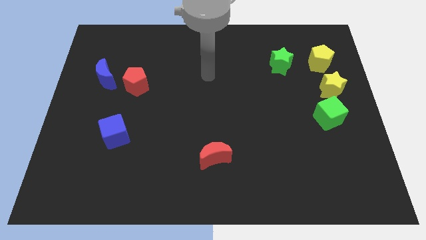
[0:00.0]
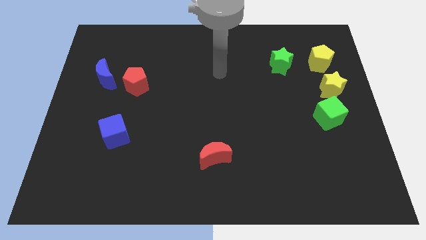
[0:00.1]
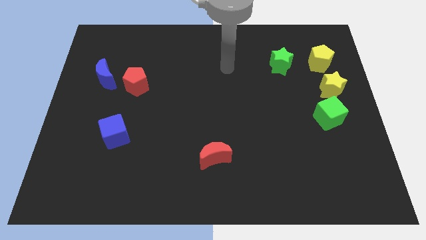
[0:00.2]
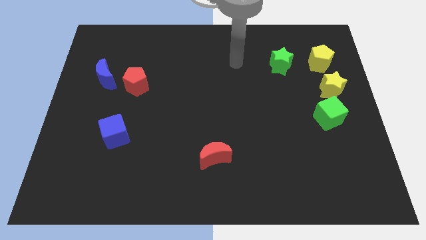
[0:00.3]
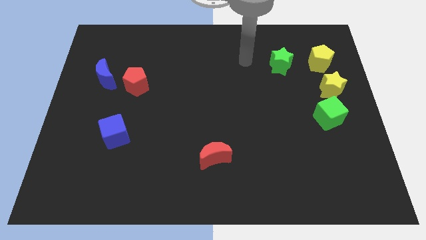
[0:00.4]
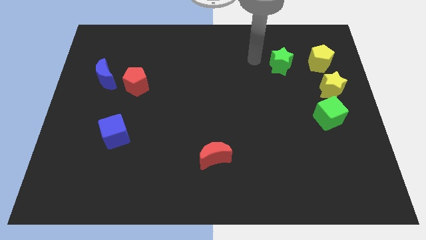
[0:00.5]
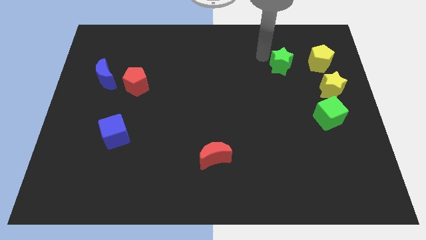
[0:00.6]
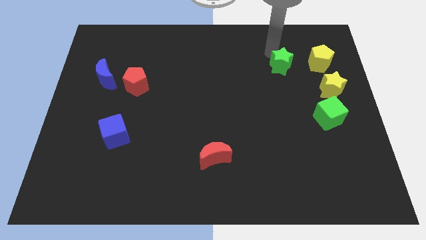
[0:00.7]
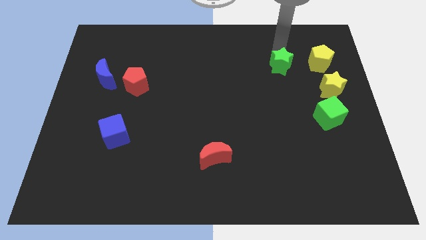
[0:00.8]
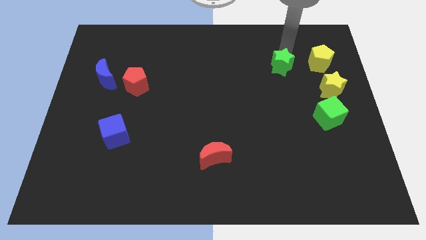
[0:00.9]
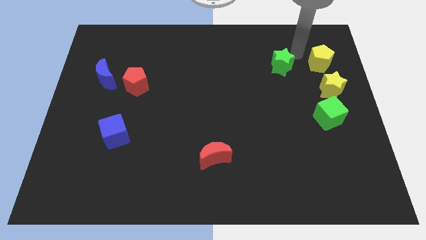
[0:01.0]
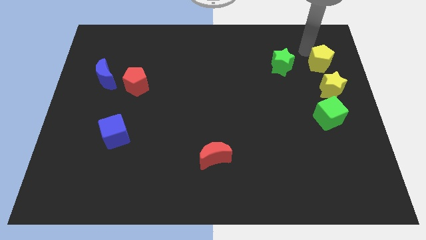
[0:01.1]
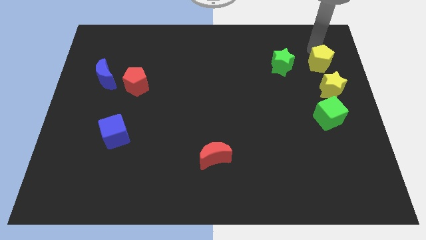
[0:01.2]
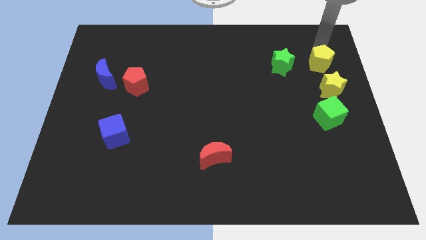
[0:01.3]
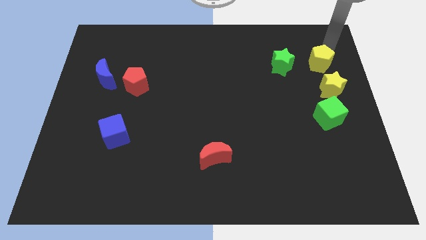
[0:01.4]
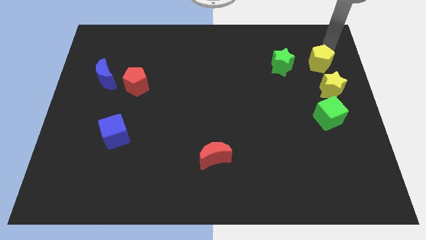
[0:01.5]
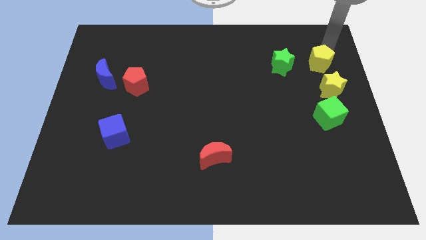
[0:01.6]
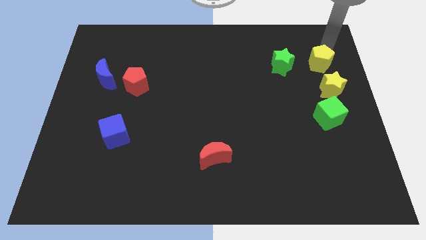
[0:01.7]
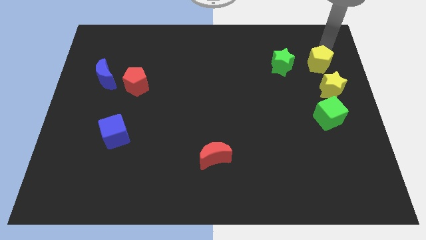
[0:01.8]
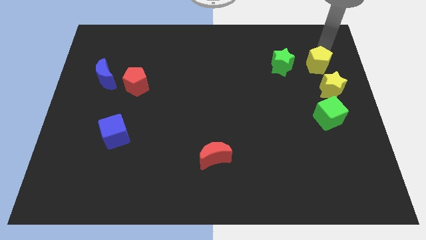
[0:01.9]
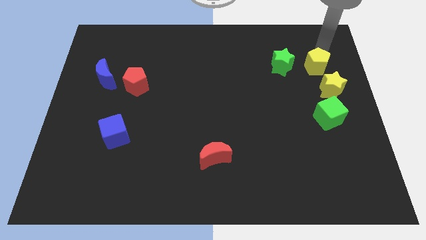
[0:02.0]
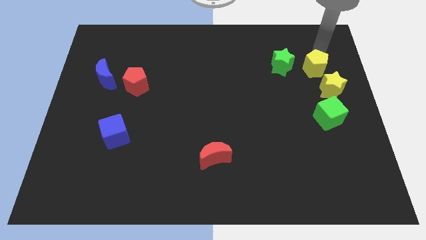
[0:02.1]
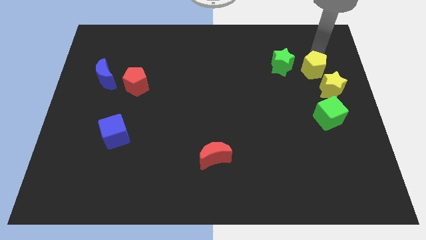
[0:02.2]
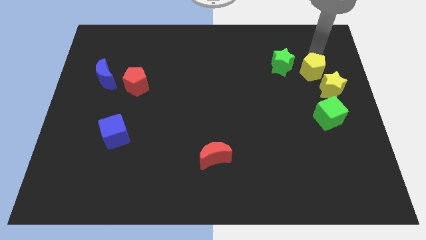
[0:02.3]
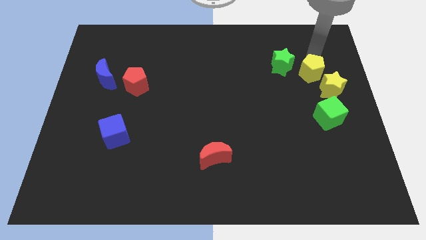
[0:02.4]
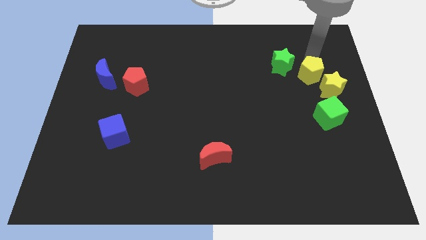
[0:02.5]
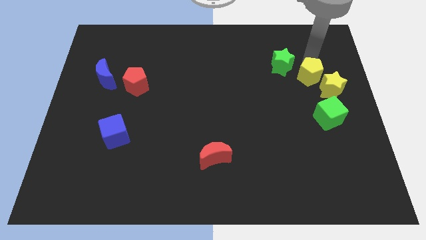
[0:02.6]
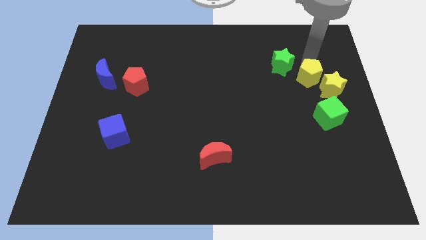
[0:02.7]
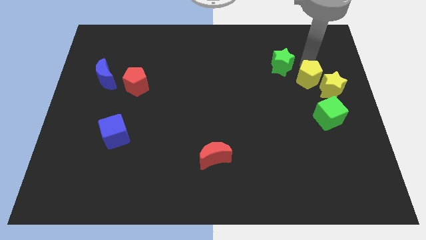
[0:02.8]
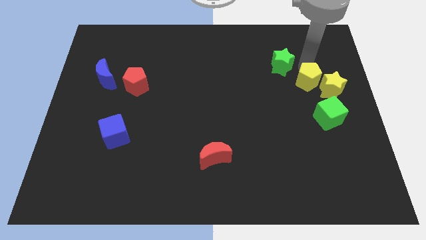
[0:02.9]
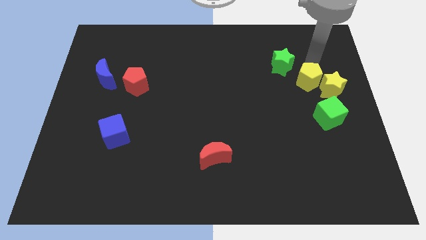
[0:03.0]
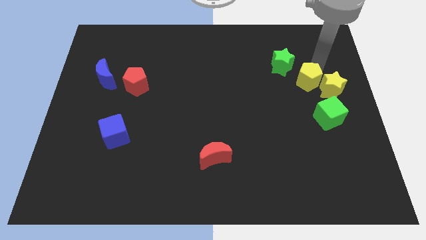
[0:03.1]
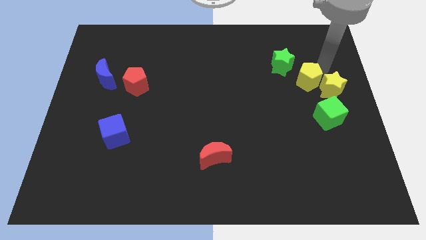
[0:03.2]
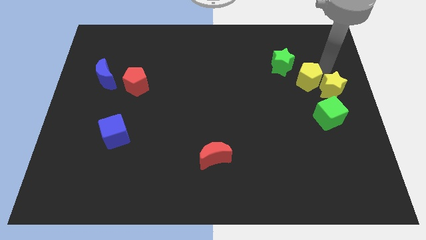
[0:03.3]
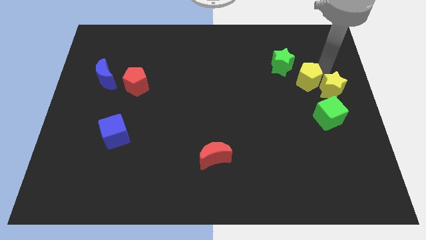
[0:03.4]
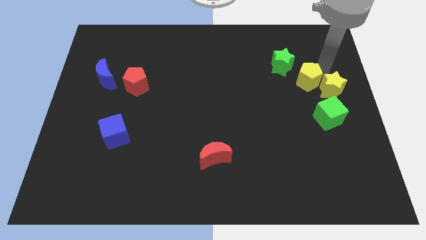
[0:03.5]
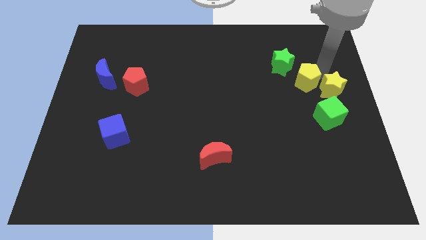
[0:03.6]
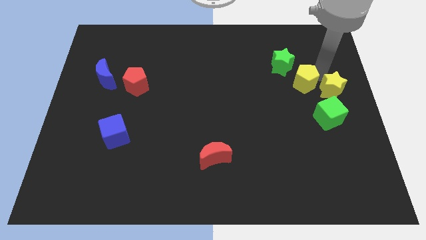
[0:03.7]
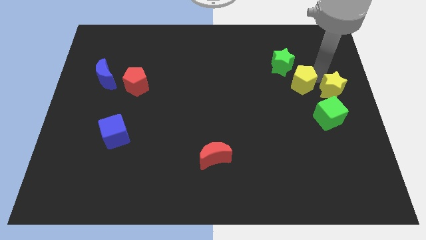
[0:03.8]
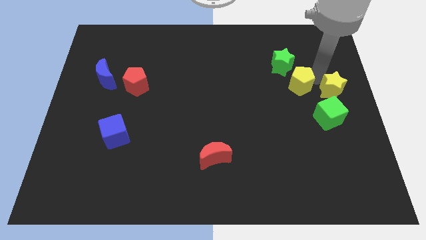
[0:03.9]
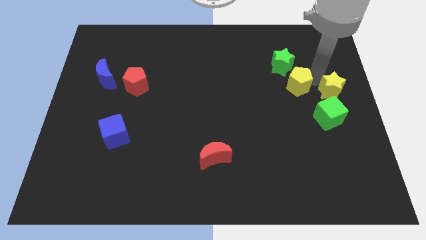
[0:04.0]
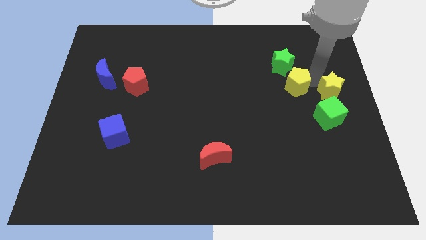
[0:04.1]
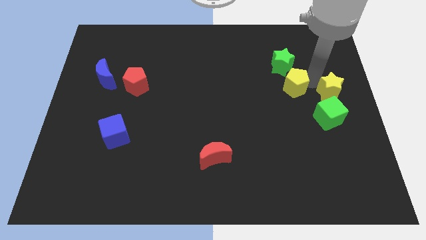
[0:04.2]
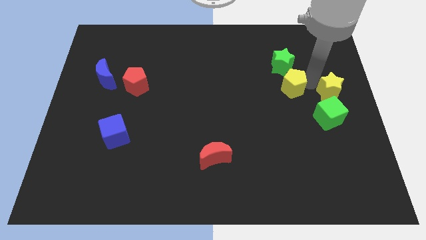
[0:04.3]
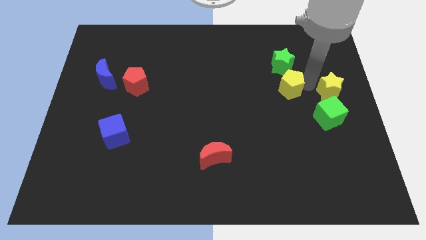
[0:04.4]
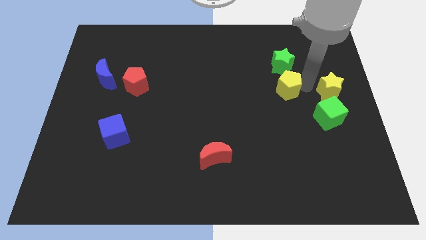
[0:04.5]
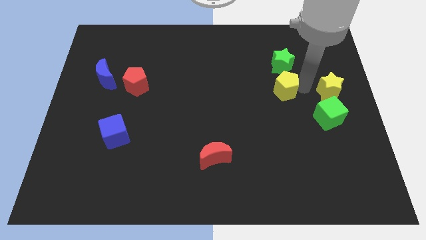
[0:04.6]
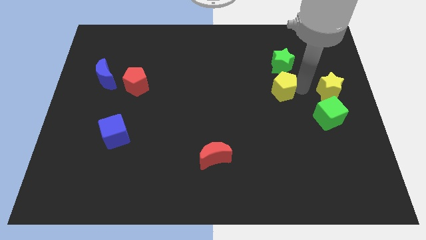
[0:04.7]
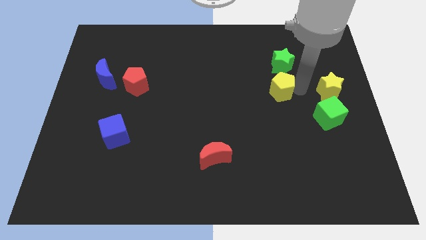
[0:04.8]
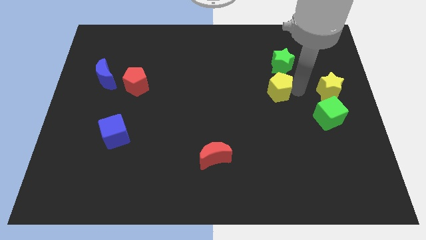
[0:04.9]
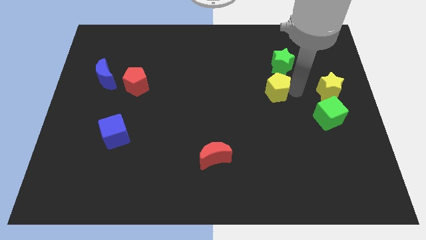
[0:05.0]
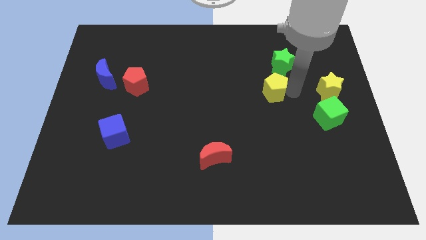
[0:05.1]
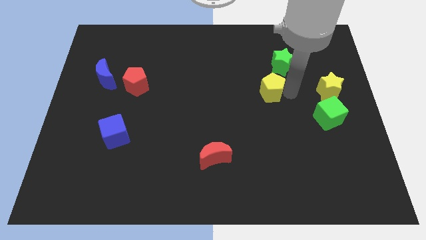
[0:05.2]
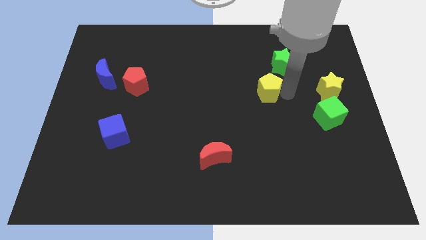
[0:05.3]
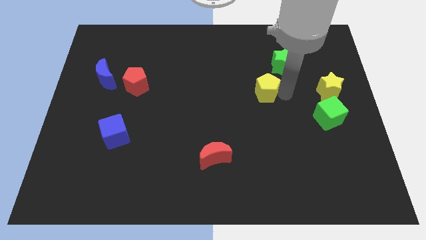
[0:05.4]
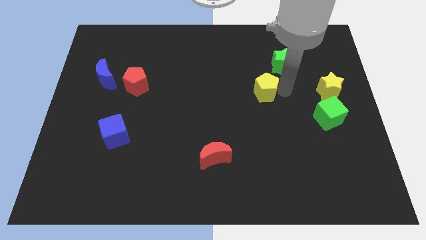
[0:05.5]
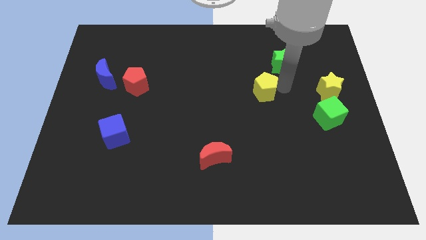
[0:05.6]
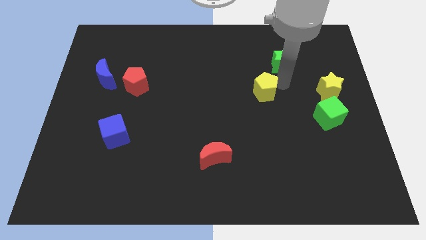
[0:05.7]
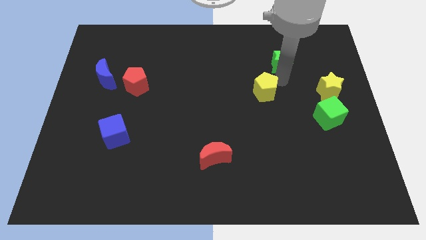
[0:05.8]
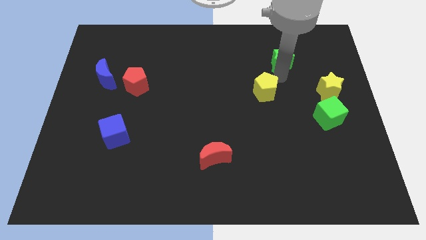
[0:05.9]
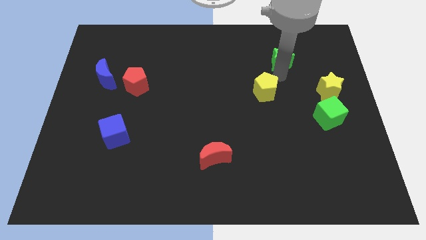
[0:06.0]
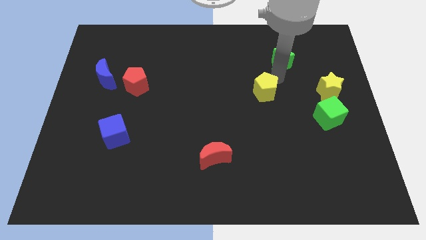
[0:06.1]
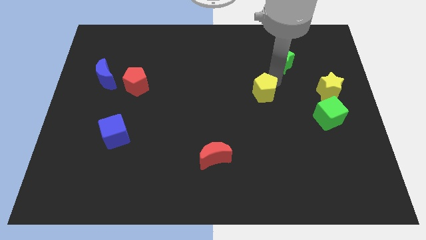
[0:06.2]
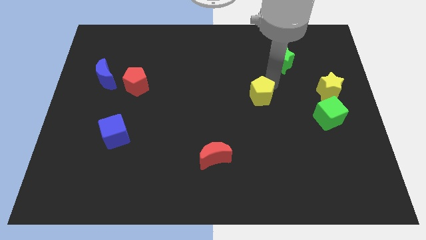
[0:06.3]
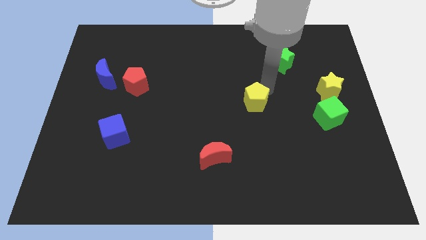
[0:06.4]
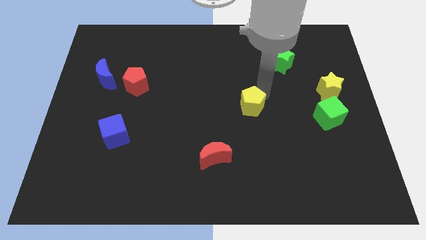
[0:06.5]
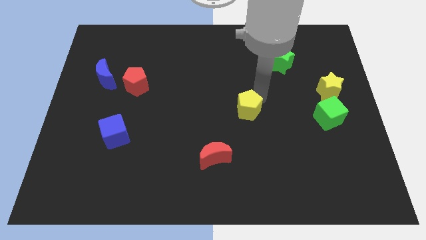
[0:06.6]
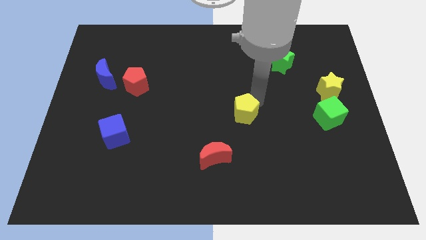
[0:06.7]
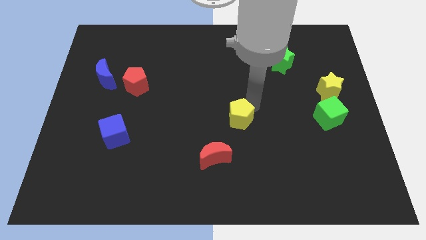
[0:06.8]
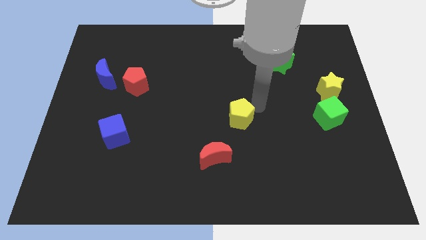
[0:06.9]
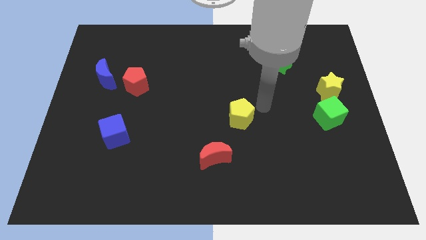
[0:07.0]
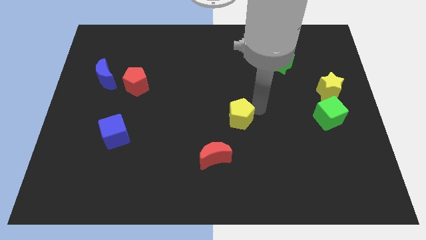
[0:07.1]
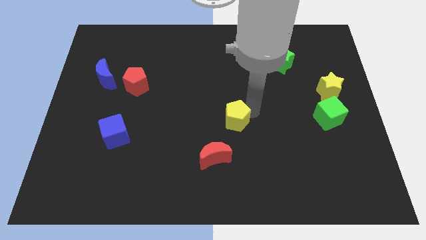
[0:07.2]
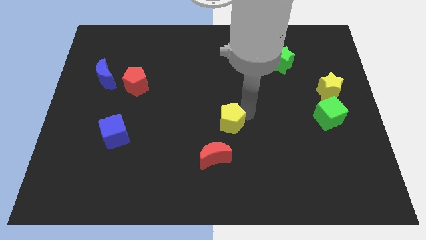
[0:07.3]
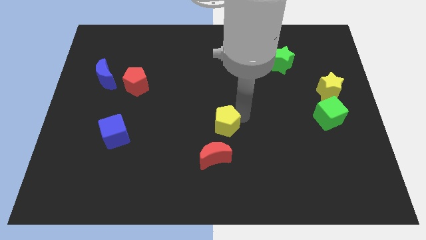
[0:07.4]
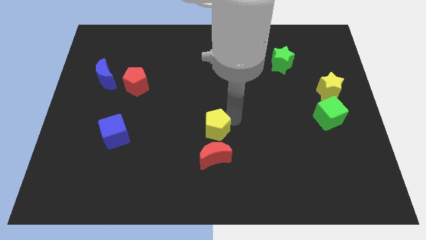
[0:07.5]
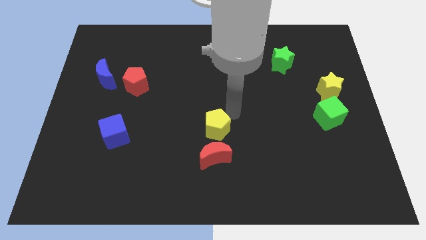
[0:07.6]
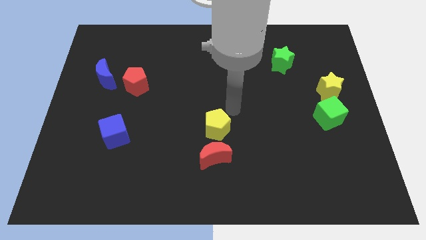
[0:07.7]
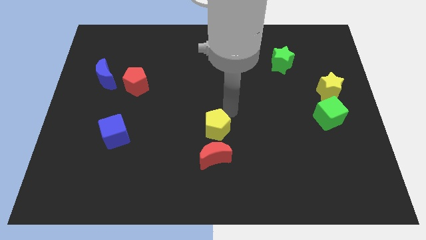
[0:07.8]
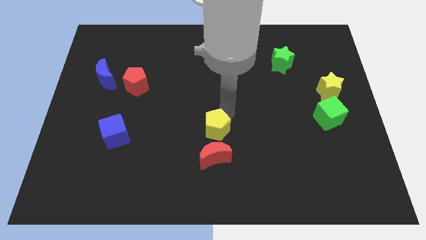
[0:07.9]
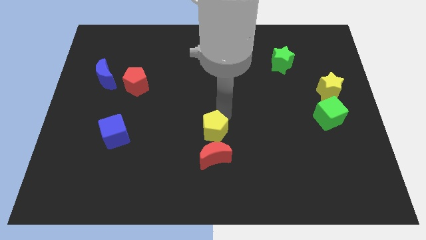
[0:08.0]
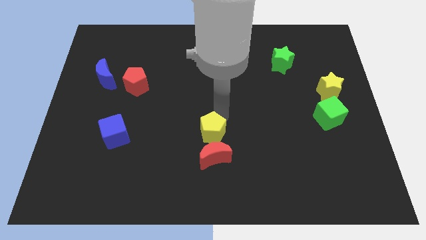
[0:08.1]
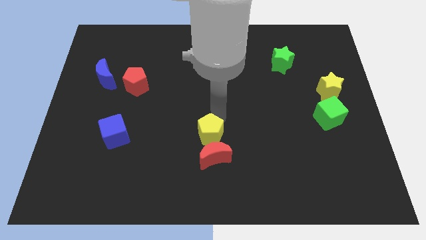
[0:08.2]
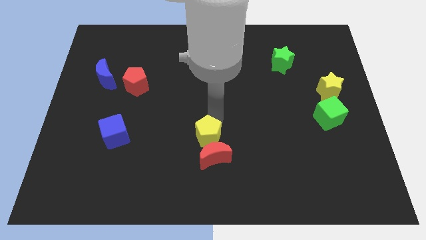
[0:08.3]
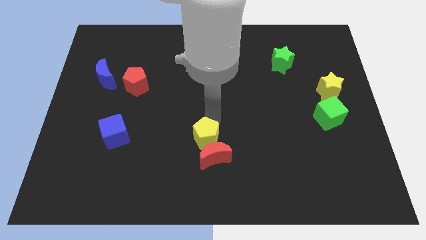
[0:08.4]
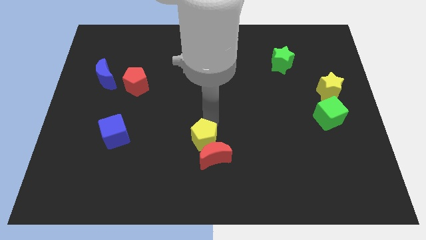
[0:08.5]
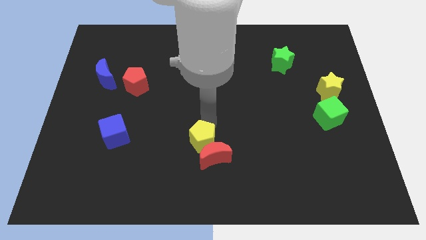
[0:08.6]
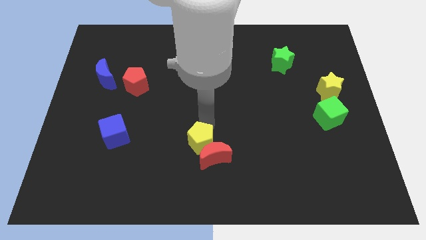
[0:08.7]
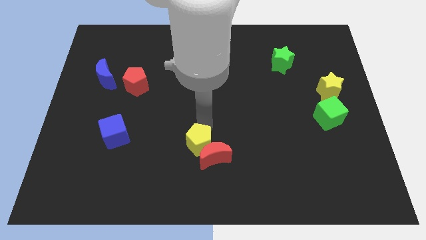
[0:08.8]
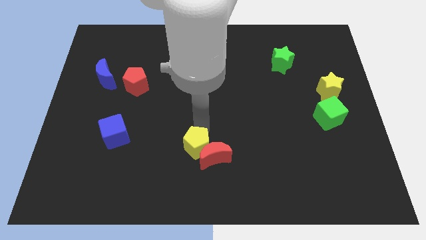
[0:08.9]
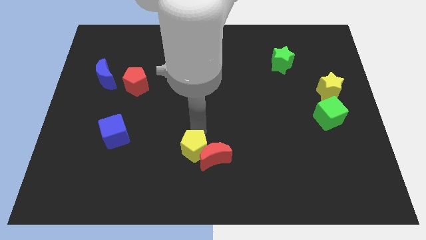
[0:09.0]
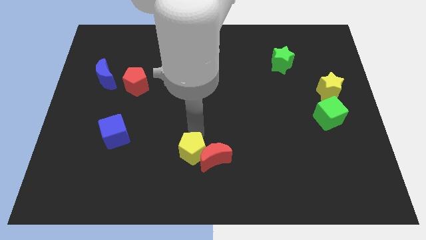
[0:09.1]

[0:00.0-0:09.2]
push the yellow pentagon to the bottom left side of the red moon
